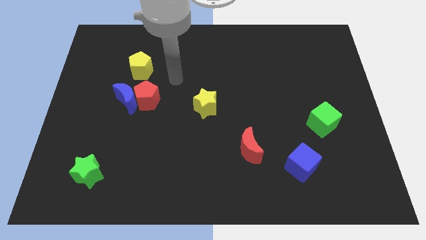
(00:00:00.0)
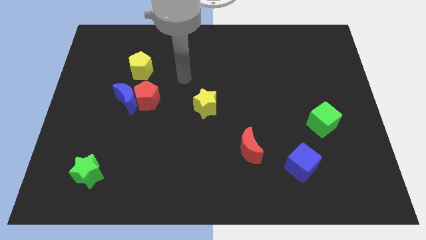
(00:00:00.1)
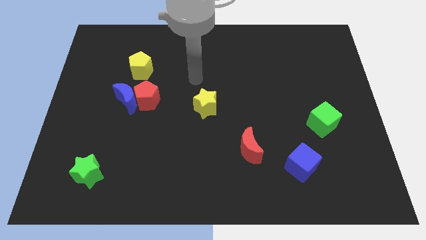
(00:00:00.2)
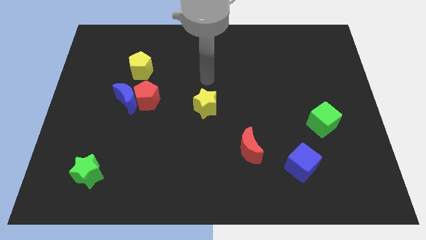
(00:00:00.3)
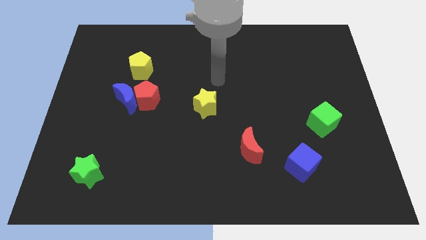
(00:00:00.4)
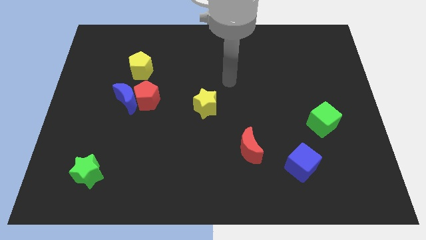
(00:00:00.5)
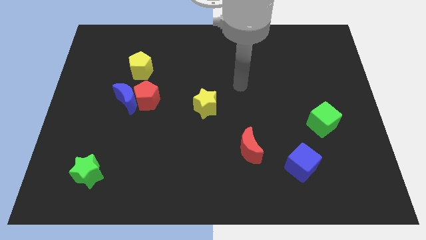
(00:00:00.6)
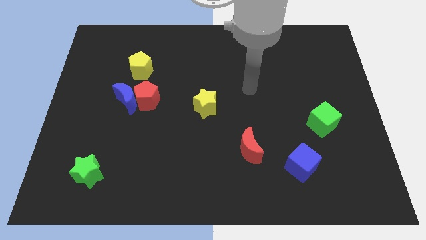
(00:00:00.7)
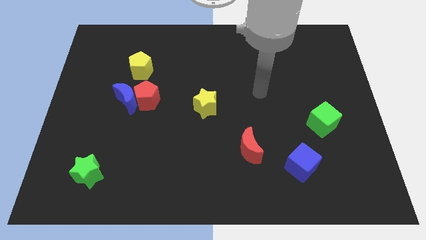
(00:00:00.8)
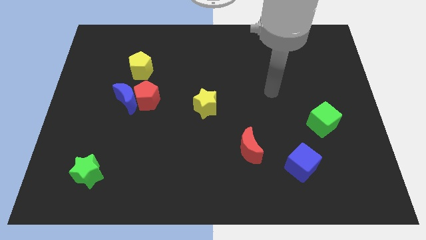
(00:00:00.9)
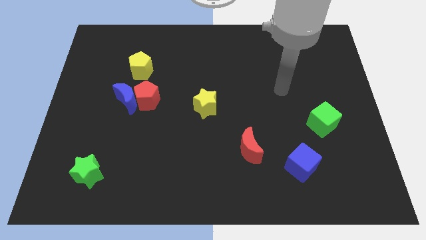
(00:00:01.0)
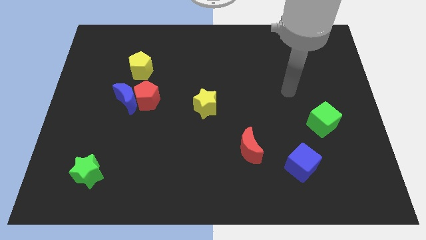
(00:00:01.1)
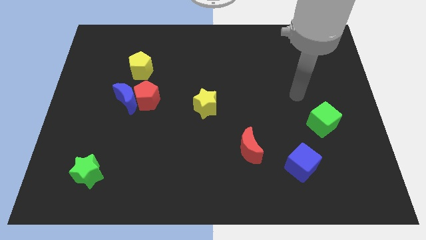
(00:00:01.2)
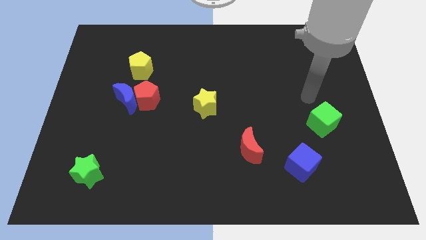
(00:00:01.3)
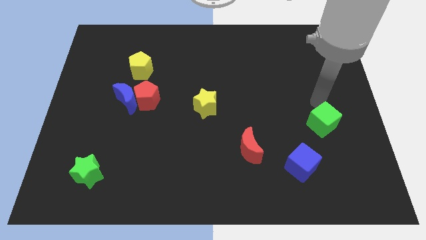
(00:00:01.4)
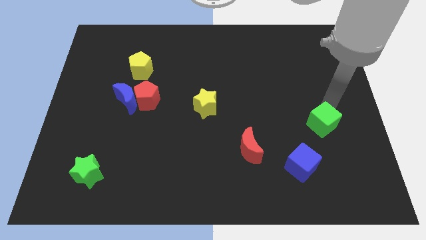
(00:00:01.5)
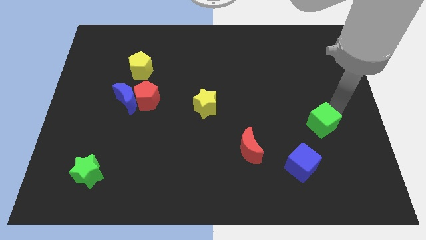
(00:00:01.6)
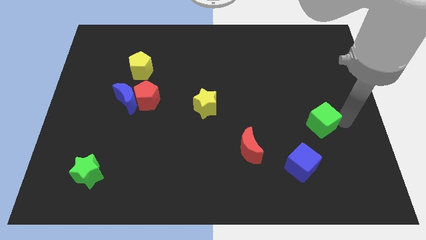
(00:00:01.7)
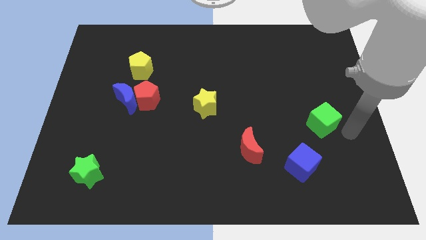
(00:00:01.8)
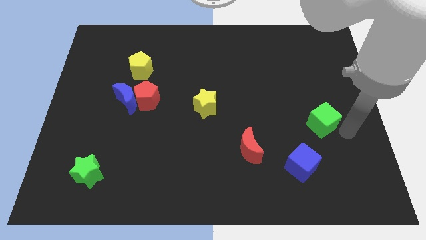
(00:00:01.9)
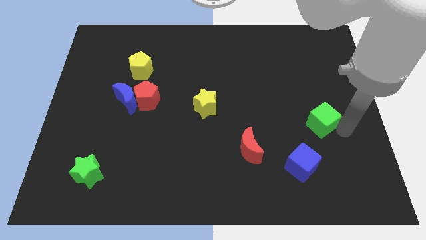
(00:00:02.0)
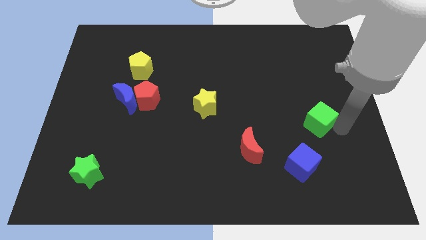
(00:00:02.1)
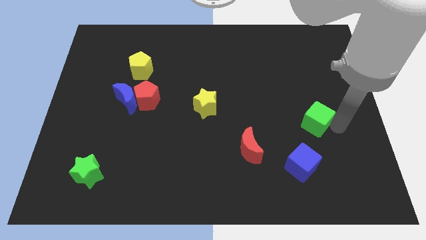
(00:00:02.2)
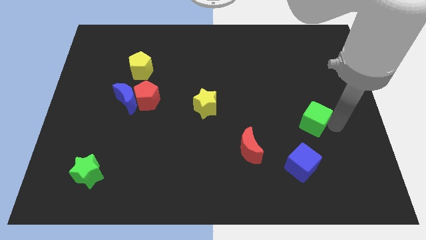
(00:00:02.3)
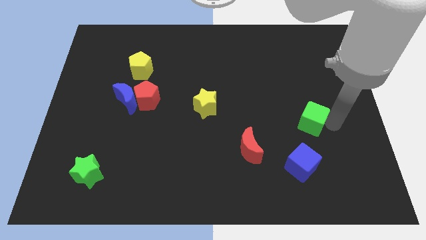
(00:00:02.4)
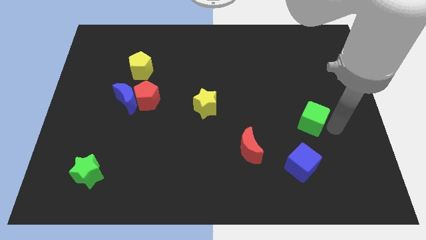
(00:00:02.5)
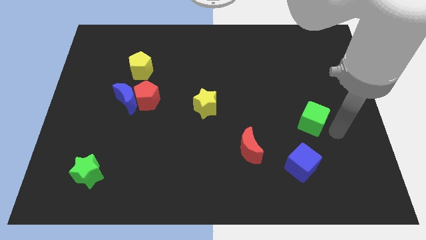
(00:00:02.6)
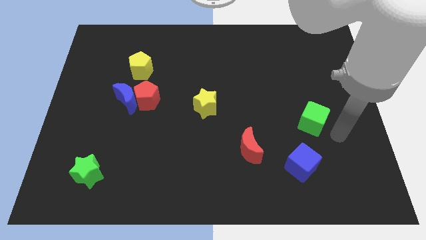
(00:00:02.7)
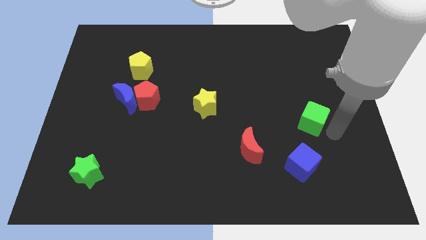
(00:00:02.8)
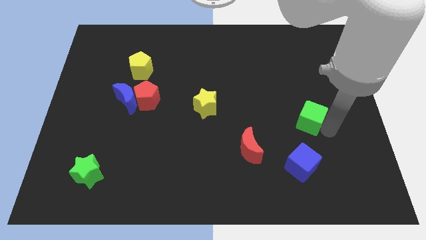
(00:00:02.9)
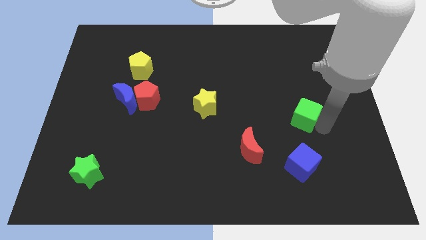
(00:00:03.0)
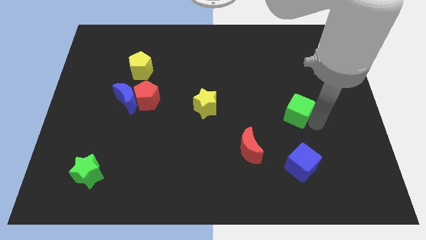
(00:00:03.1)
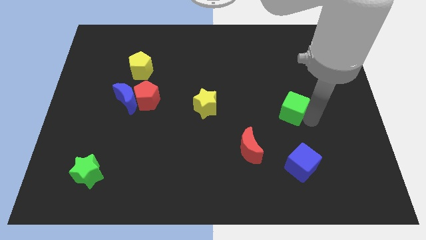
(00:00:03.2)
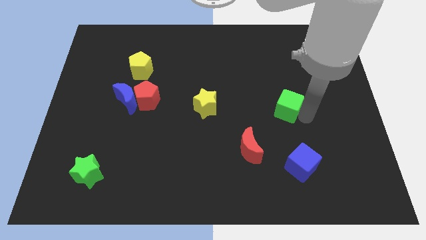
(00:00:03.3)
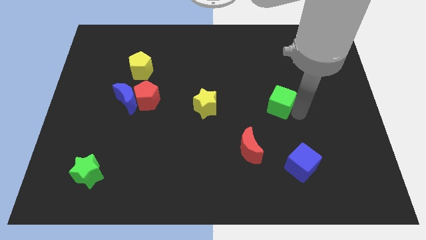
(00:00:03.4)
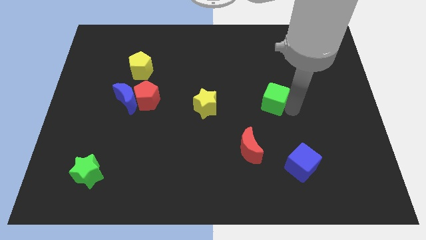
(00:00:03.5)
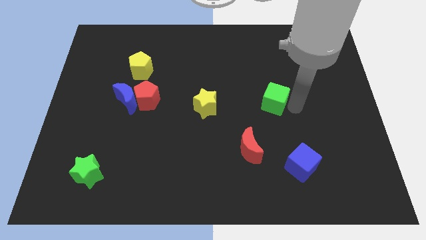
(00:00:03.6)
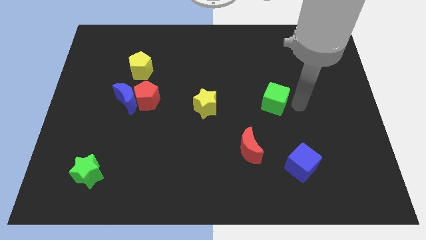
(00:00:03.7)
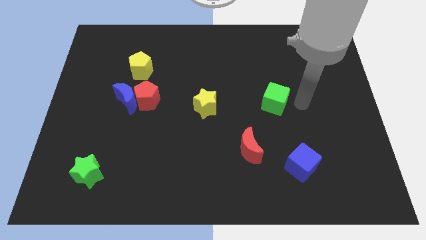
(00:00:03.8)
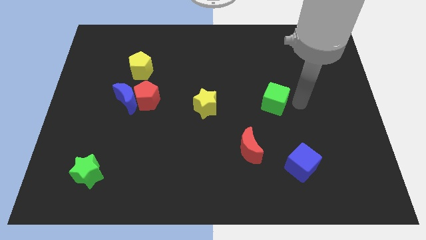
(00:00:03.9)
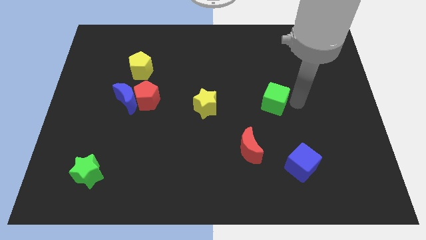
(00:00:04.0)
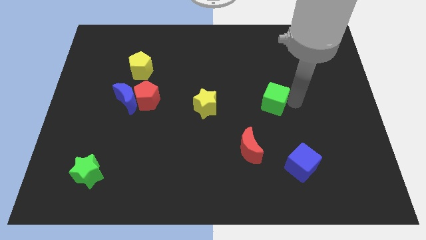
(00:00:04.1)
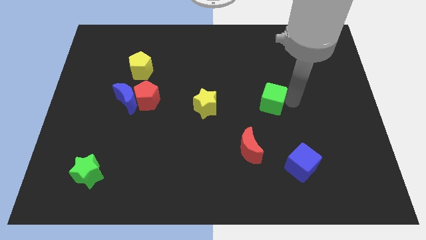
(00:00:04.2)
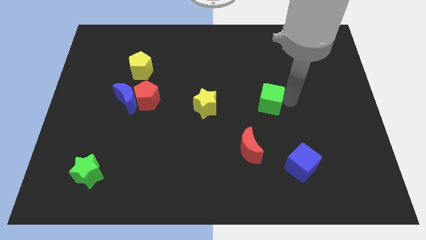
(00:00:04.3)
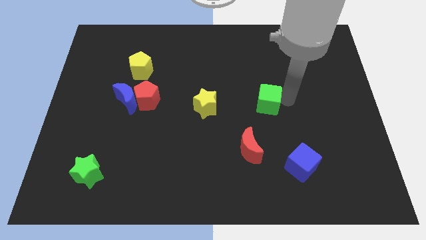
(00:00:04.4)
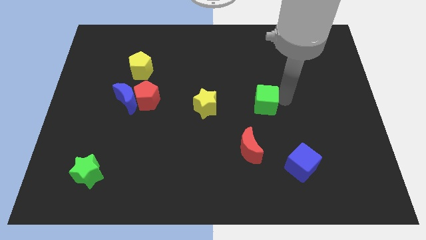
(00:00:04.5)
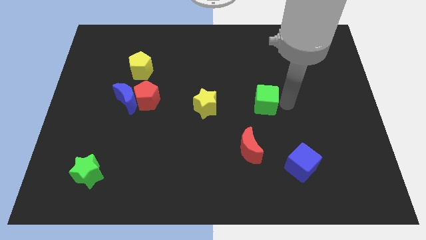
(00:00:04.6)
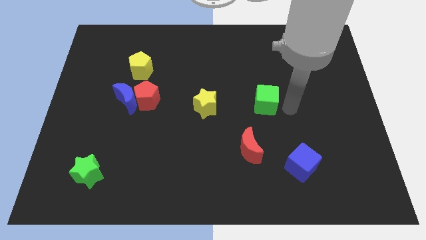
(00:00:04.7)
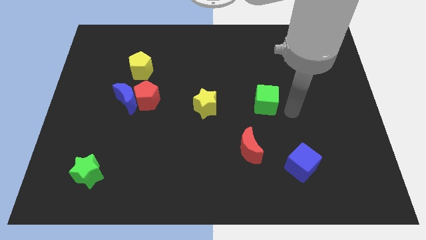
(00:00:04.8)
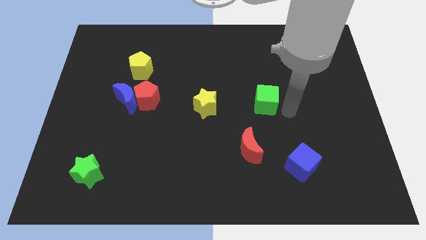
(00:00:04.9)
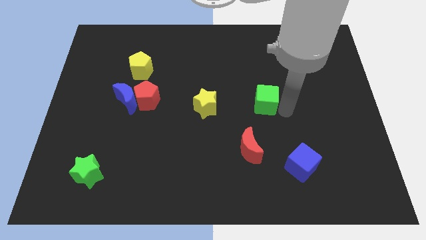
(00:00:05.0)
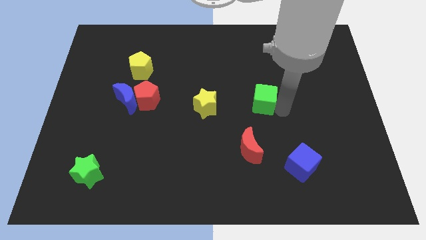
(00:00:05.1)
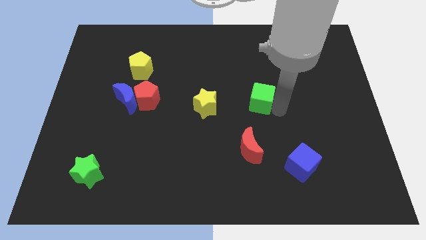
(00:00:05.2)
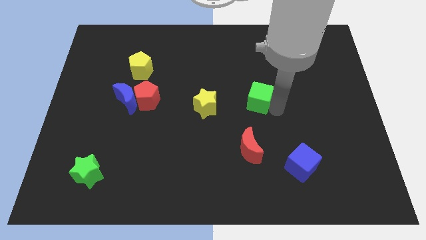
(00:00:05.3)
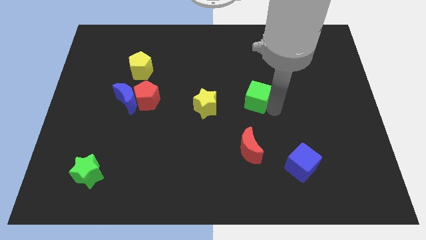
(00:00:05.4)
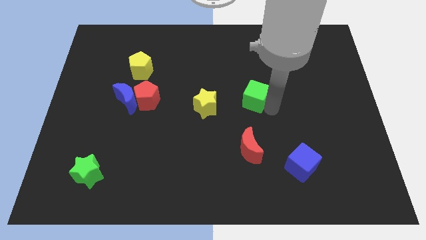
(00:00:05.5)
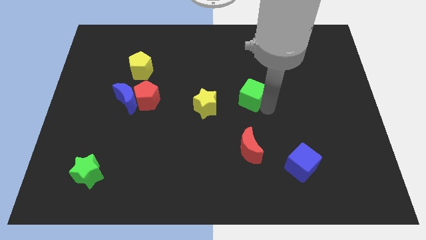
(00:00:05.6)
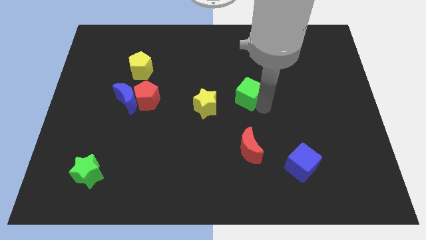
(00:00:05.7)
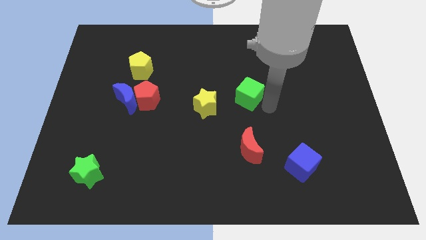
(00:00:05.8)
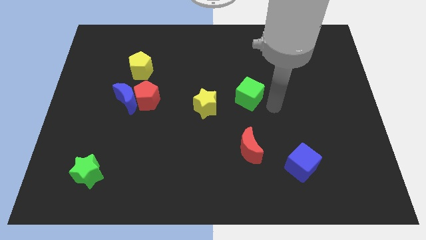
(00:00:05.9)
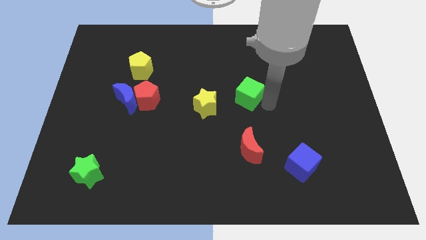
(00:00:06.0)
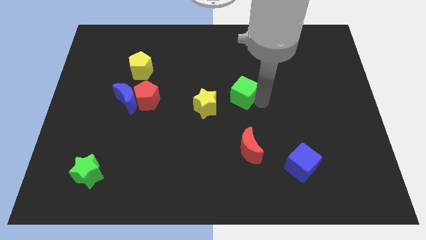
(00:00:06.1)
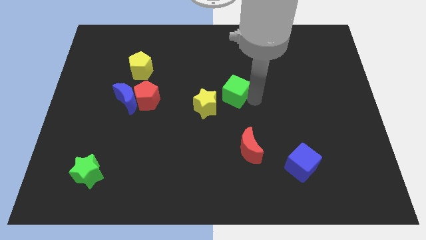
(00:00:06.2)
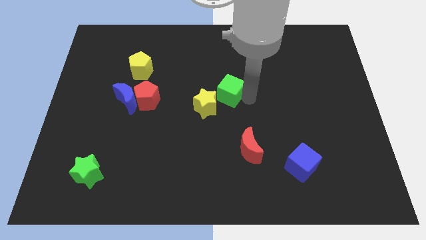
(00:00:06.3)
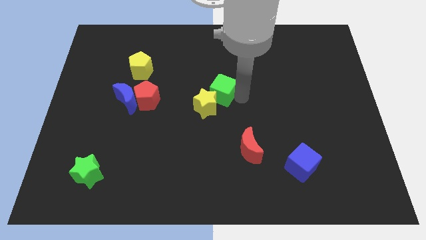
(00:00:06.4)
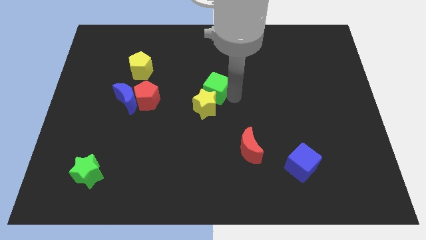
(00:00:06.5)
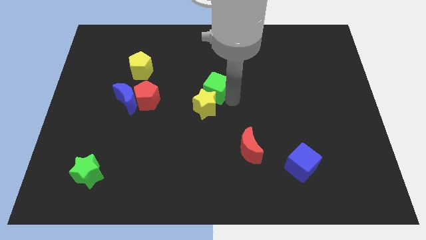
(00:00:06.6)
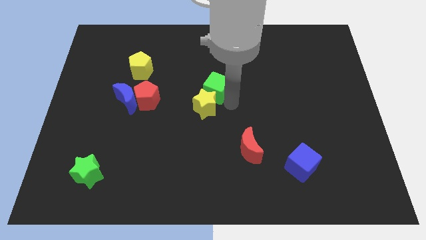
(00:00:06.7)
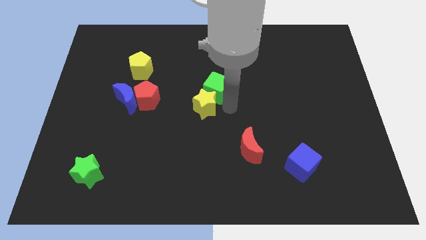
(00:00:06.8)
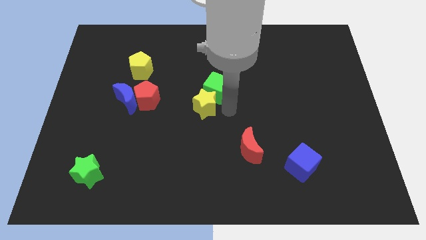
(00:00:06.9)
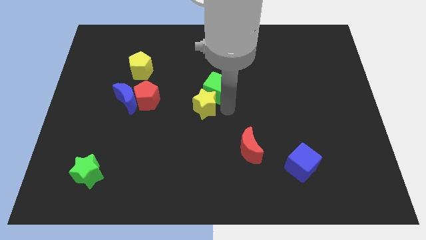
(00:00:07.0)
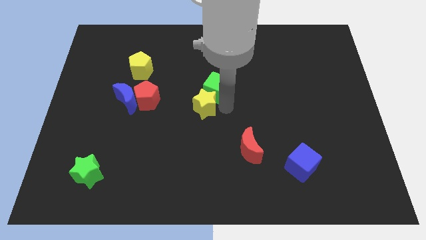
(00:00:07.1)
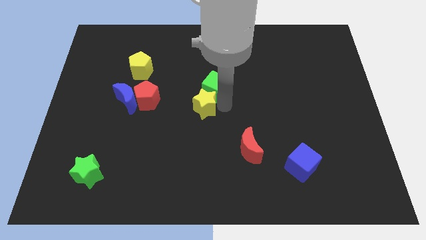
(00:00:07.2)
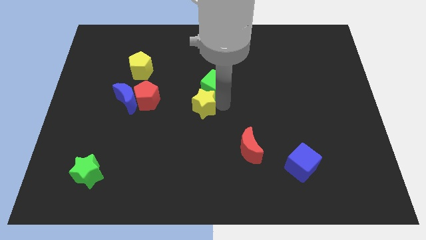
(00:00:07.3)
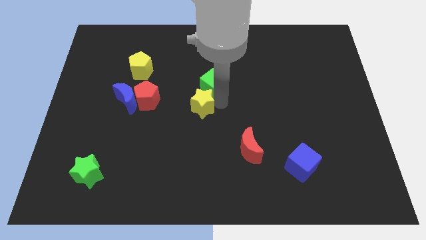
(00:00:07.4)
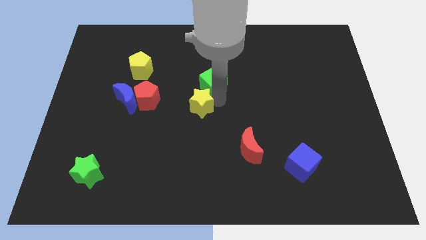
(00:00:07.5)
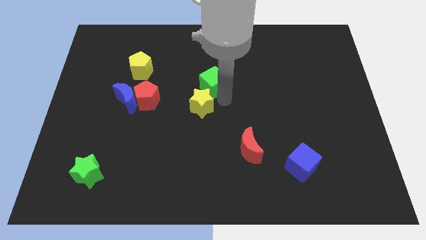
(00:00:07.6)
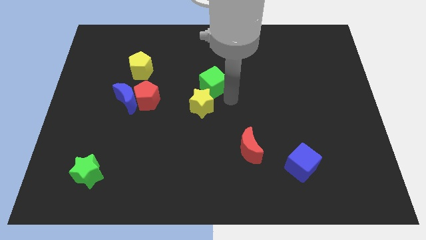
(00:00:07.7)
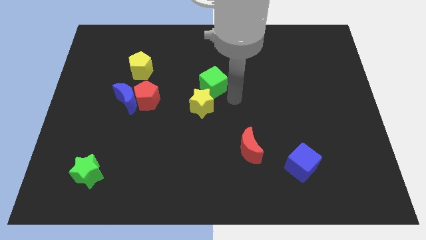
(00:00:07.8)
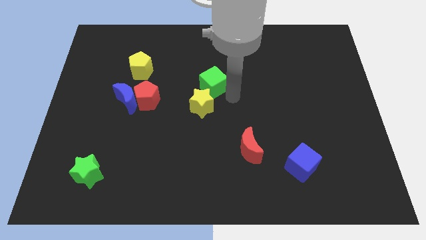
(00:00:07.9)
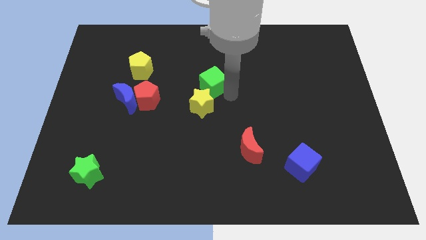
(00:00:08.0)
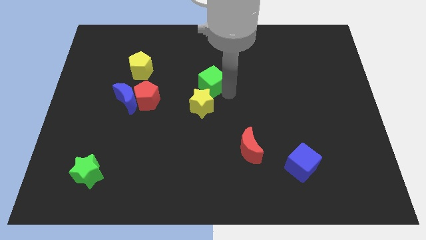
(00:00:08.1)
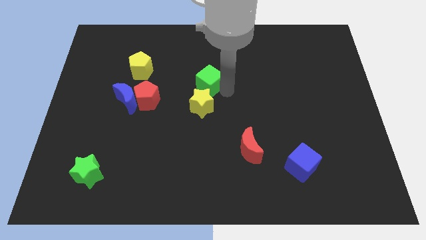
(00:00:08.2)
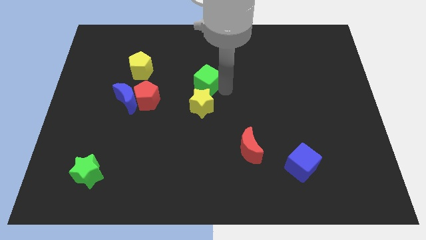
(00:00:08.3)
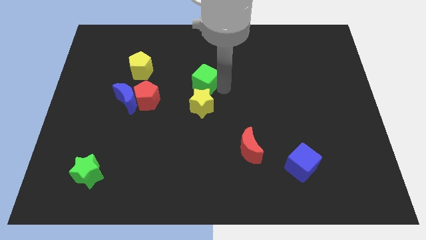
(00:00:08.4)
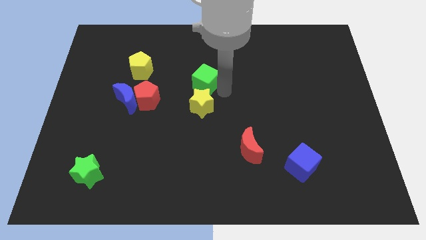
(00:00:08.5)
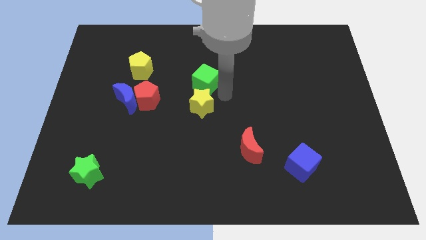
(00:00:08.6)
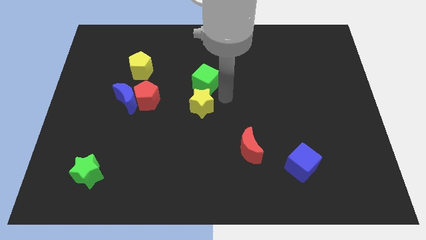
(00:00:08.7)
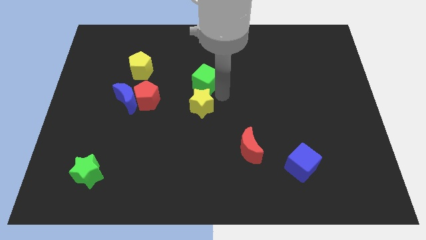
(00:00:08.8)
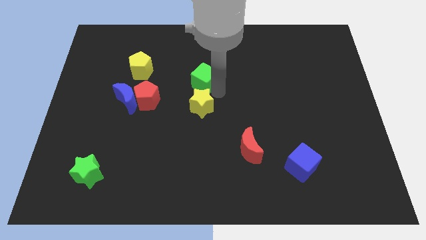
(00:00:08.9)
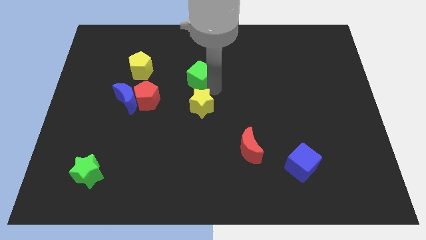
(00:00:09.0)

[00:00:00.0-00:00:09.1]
slide the green cube just right of the yellow pentagon
